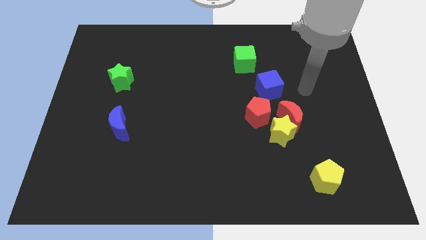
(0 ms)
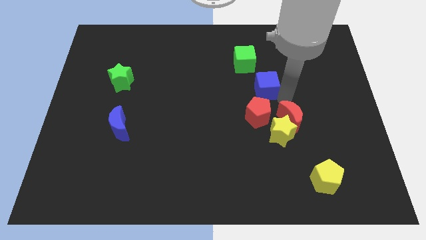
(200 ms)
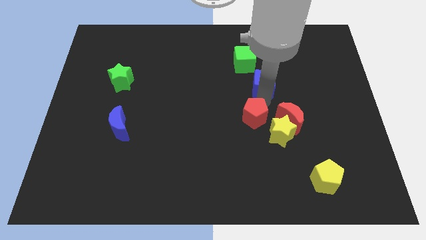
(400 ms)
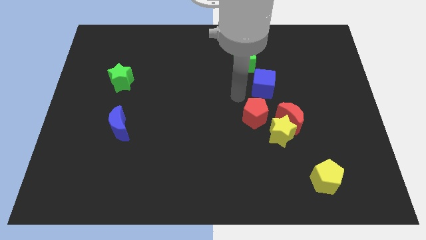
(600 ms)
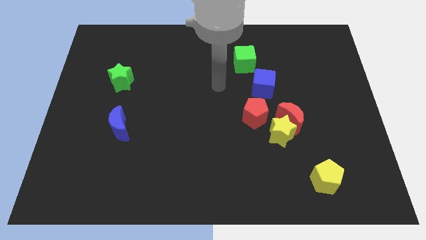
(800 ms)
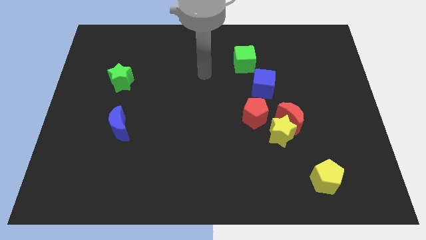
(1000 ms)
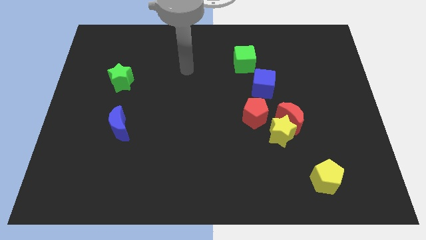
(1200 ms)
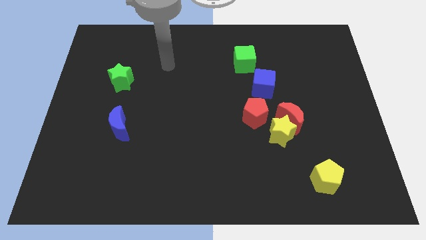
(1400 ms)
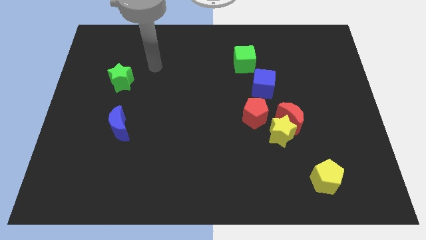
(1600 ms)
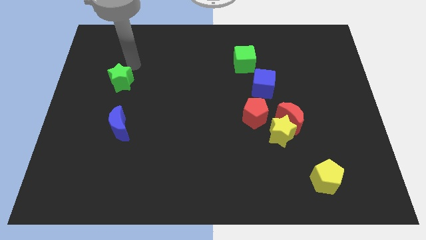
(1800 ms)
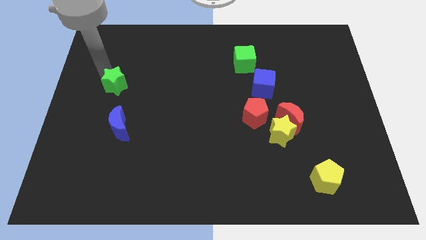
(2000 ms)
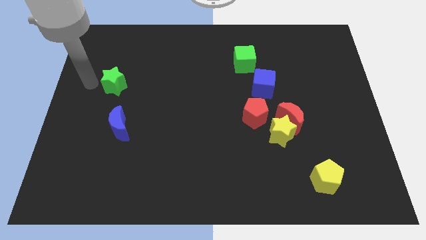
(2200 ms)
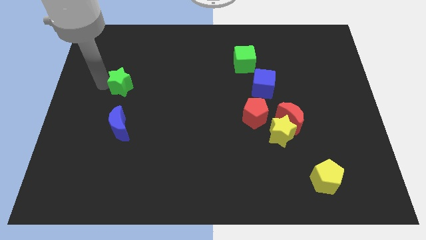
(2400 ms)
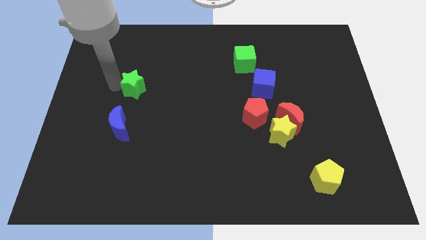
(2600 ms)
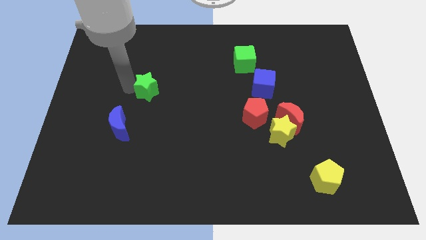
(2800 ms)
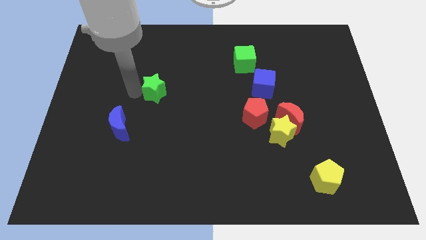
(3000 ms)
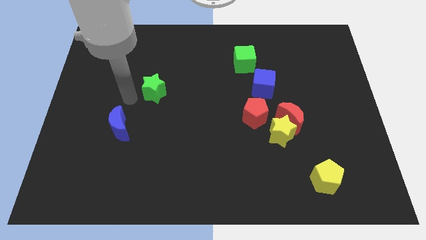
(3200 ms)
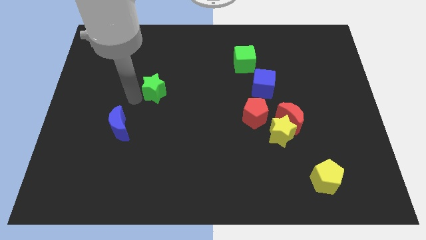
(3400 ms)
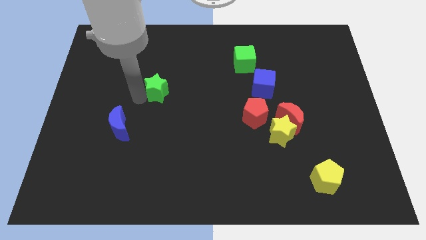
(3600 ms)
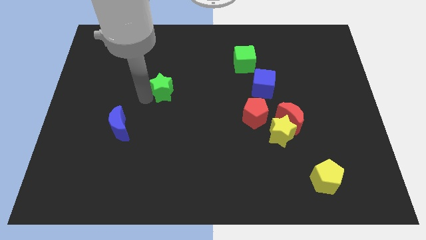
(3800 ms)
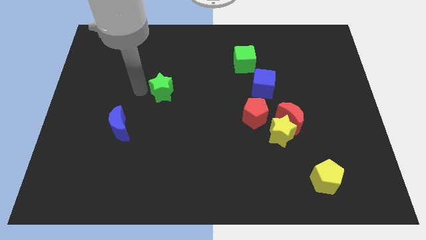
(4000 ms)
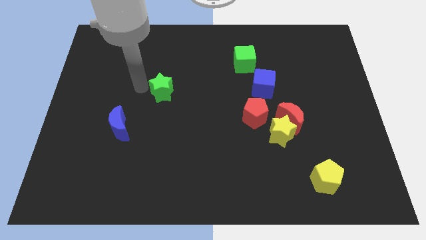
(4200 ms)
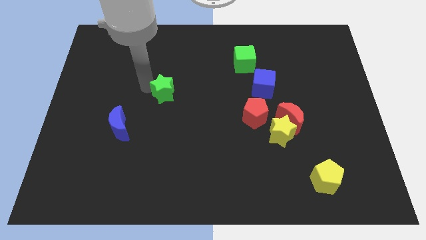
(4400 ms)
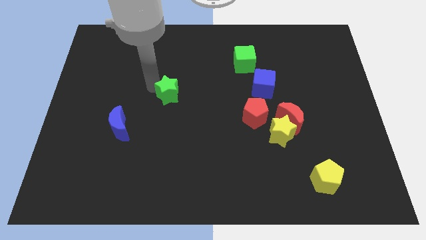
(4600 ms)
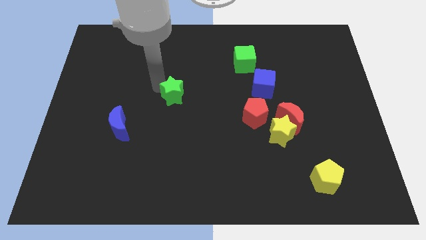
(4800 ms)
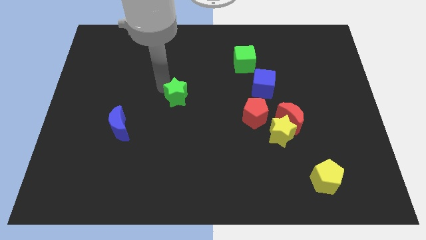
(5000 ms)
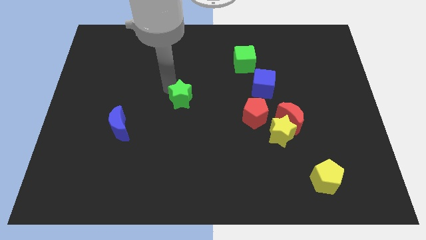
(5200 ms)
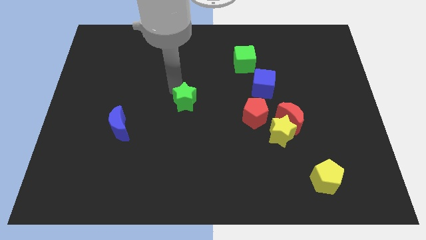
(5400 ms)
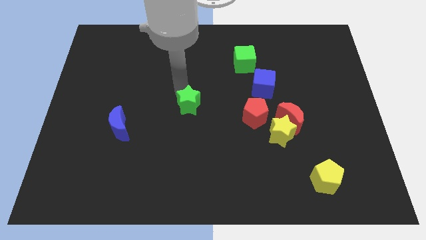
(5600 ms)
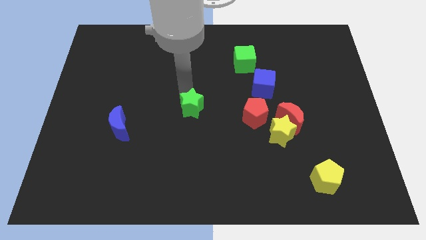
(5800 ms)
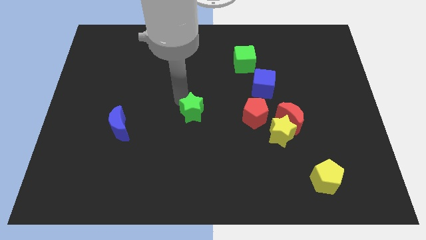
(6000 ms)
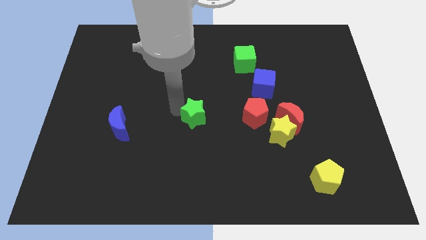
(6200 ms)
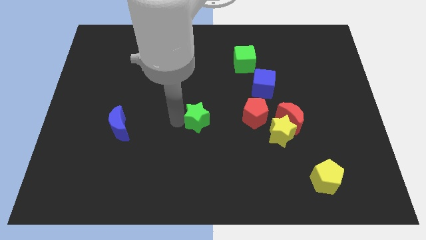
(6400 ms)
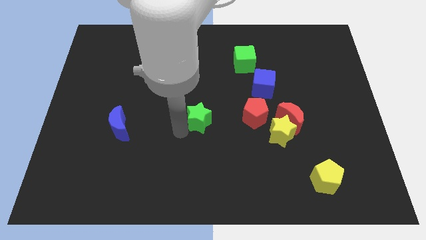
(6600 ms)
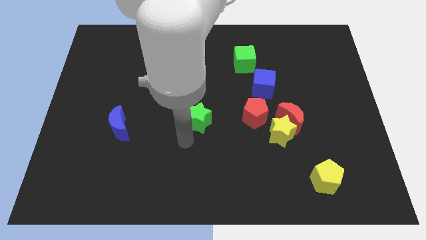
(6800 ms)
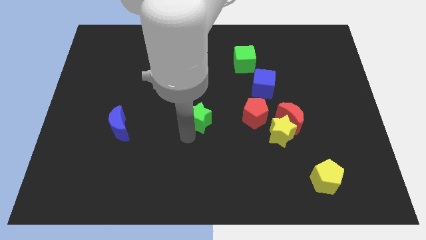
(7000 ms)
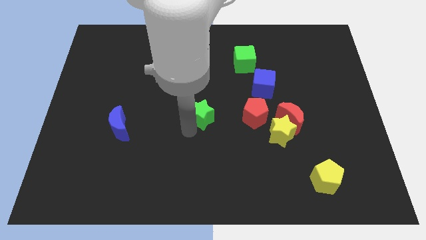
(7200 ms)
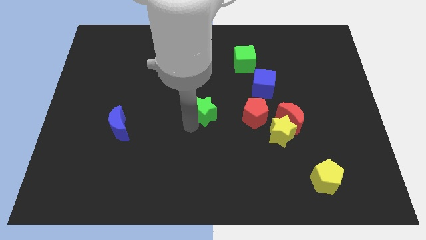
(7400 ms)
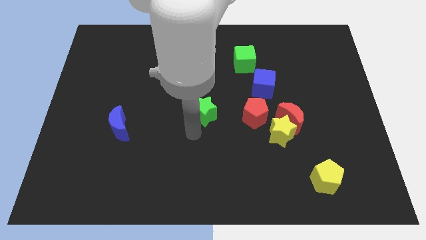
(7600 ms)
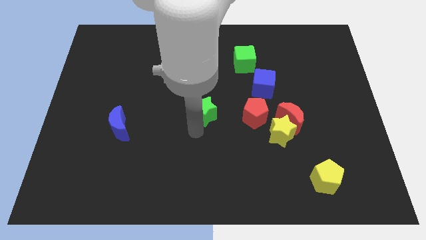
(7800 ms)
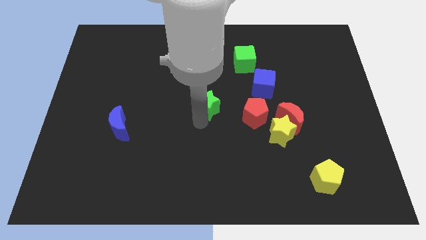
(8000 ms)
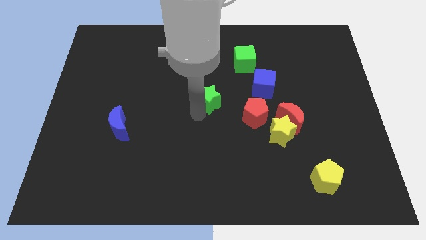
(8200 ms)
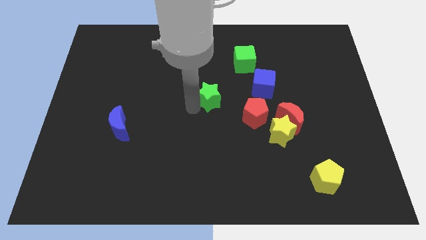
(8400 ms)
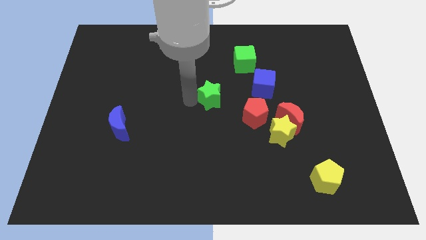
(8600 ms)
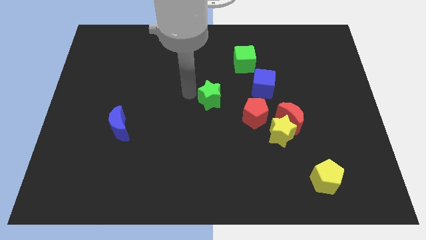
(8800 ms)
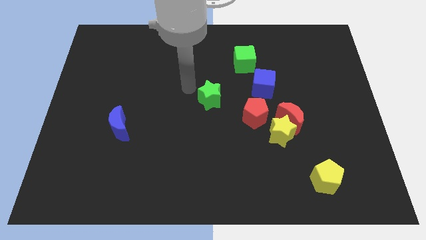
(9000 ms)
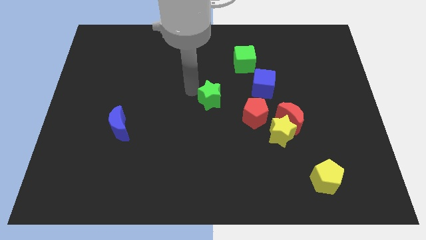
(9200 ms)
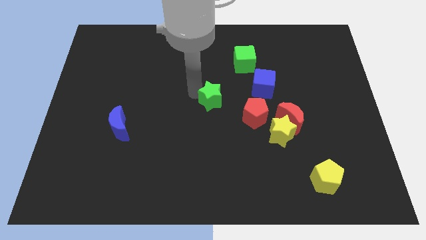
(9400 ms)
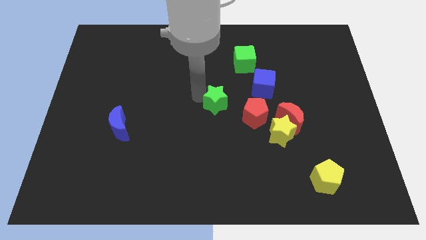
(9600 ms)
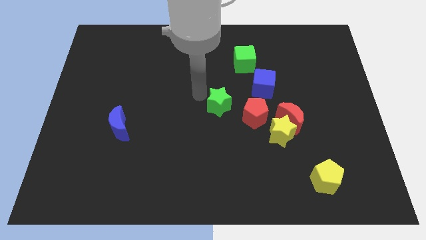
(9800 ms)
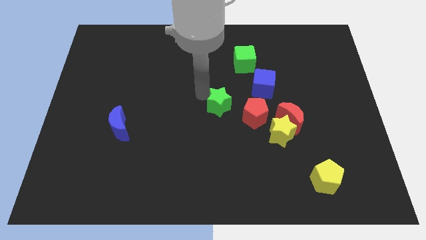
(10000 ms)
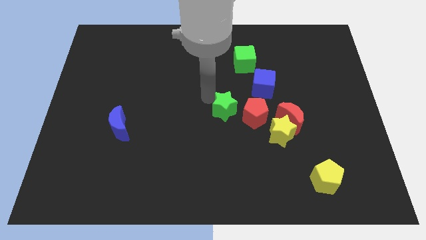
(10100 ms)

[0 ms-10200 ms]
move the green star left of the red moon

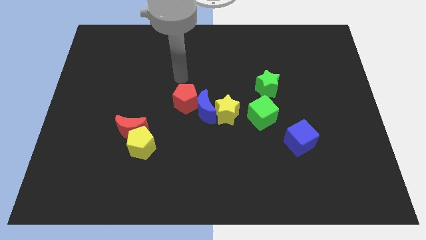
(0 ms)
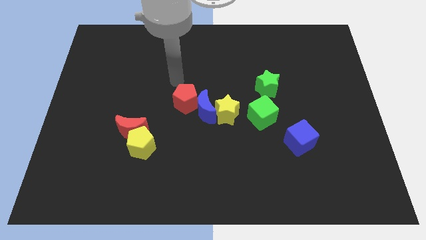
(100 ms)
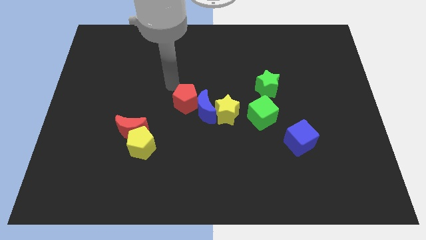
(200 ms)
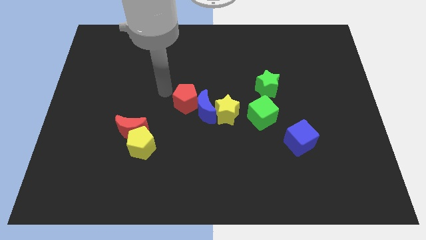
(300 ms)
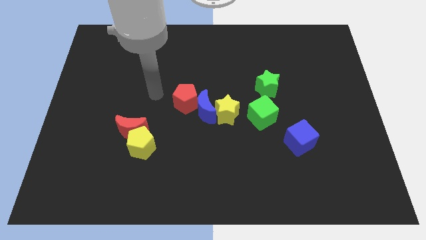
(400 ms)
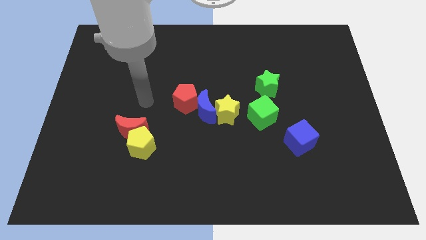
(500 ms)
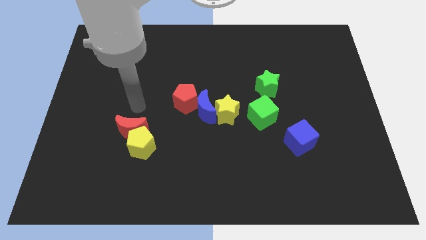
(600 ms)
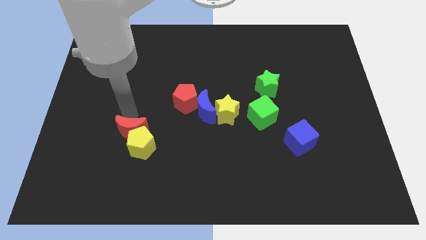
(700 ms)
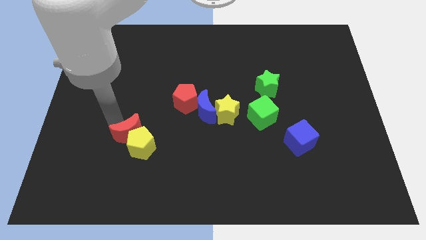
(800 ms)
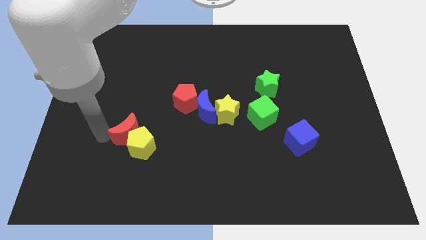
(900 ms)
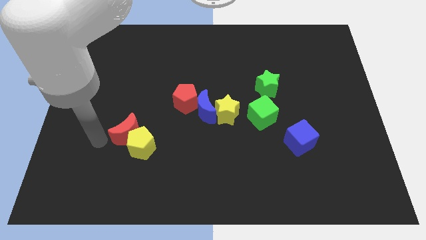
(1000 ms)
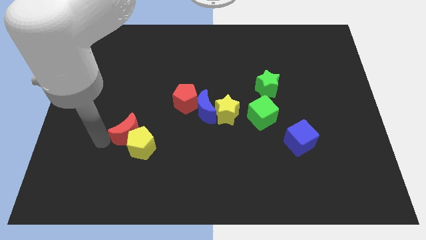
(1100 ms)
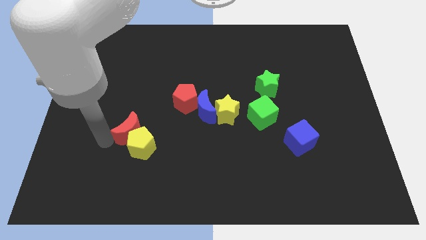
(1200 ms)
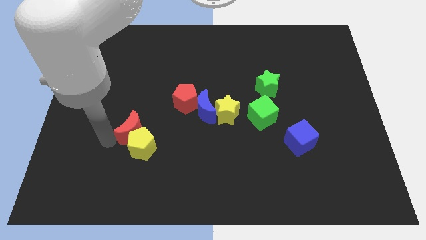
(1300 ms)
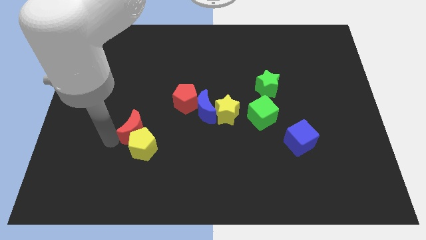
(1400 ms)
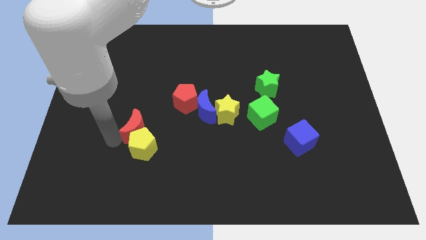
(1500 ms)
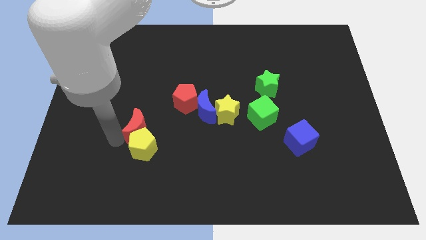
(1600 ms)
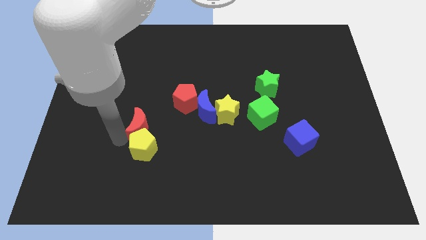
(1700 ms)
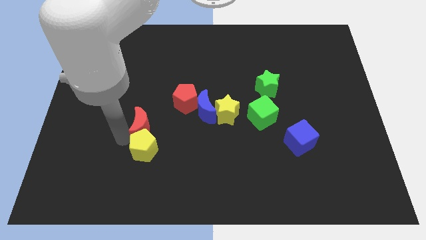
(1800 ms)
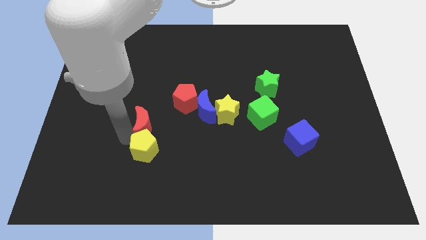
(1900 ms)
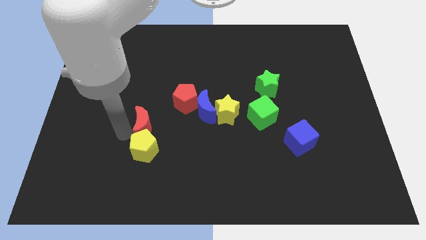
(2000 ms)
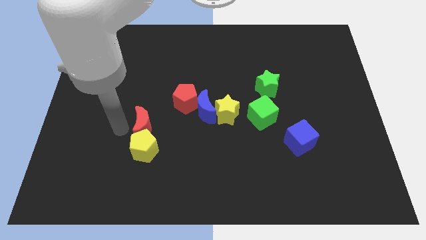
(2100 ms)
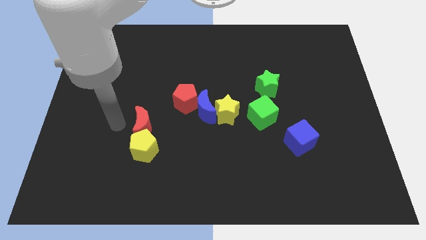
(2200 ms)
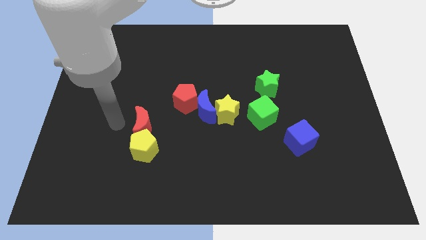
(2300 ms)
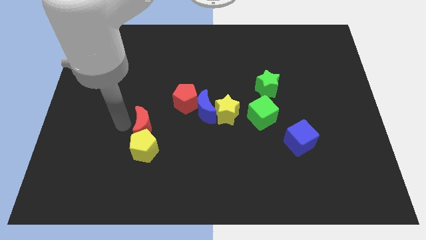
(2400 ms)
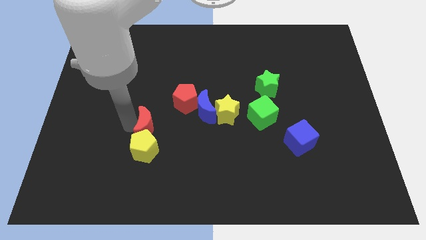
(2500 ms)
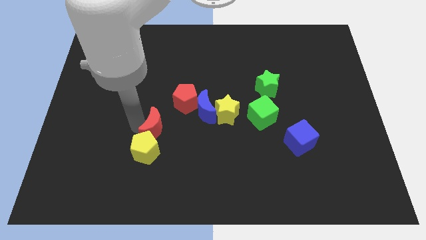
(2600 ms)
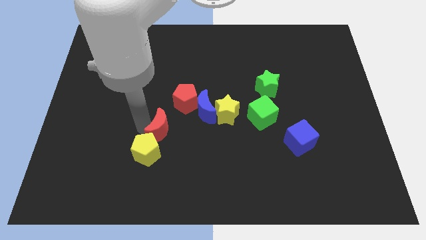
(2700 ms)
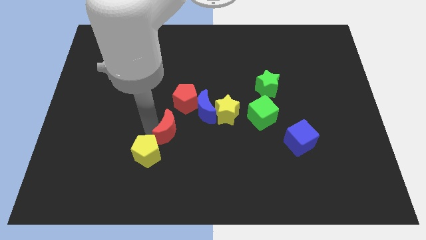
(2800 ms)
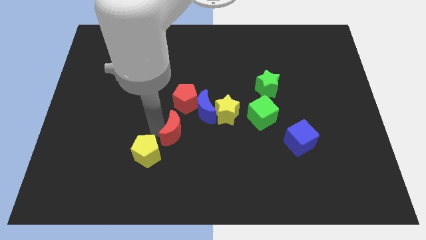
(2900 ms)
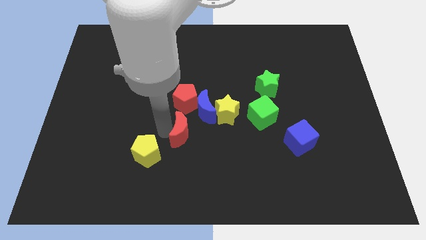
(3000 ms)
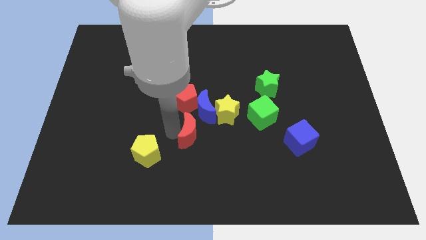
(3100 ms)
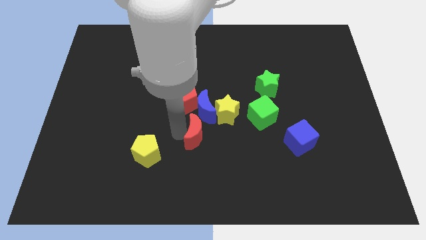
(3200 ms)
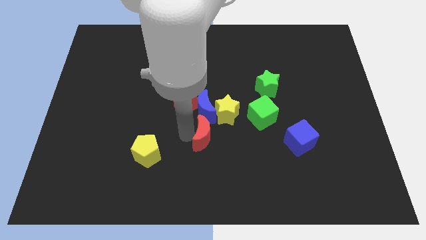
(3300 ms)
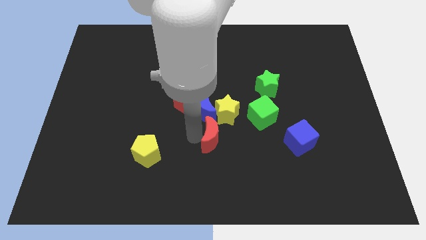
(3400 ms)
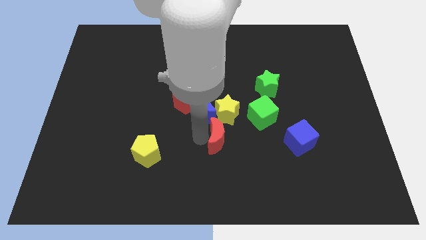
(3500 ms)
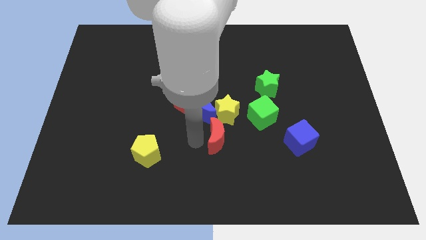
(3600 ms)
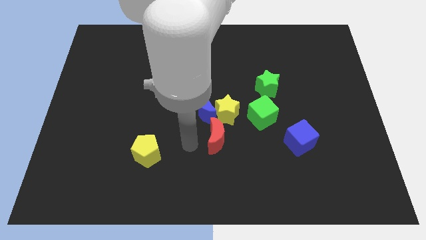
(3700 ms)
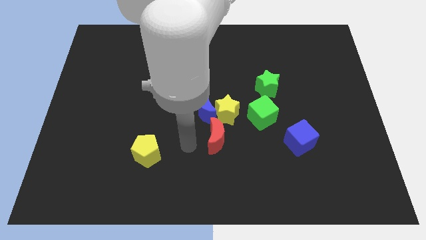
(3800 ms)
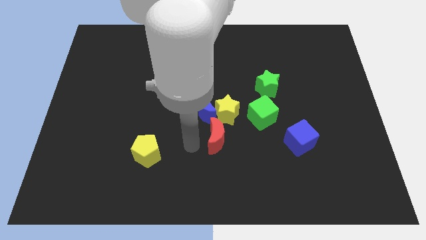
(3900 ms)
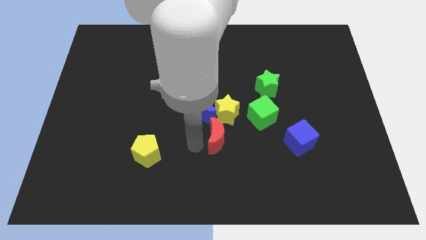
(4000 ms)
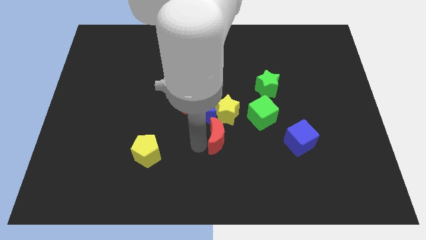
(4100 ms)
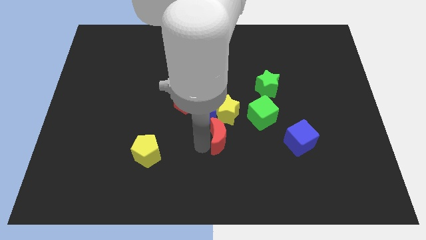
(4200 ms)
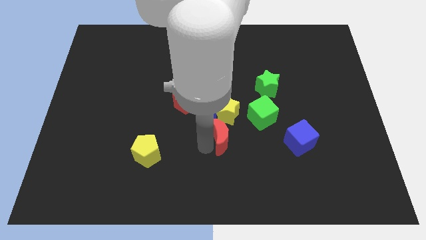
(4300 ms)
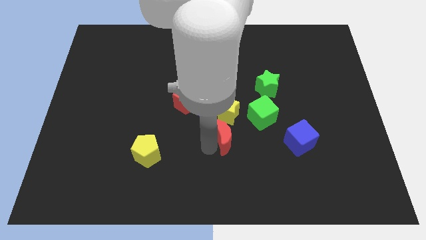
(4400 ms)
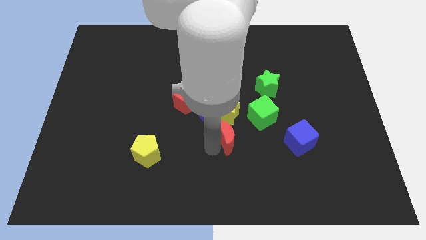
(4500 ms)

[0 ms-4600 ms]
move the red moon to the bottom right side of the yellow star
